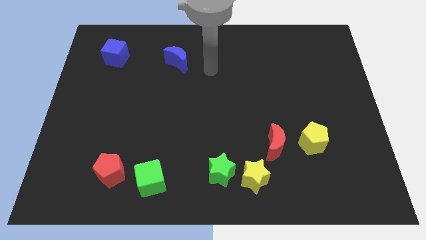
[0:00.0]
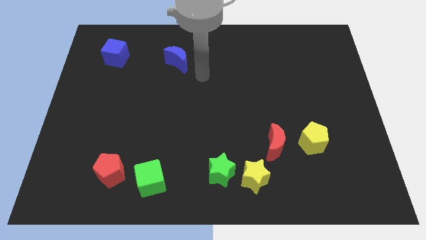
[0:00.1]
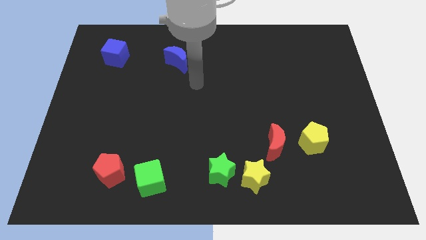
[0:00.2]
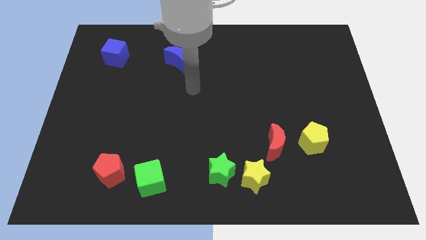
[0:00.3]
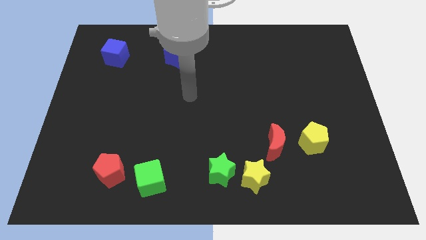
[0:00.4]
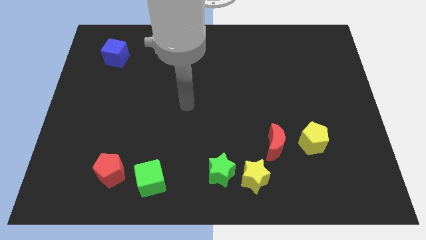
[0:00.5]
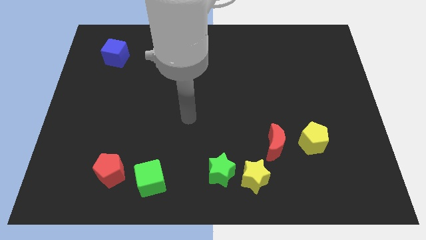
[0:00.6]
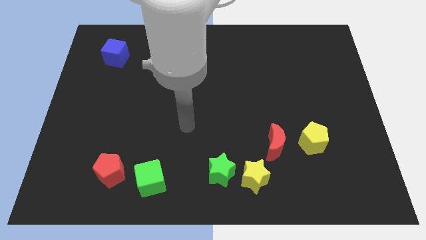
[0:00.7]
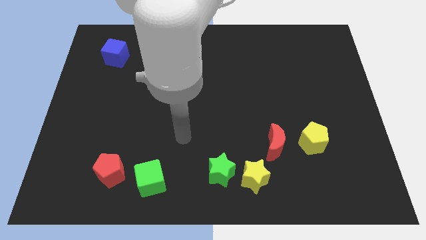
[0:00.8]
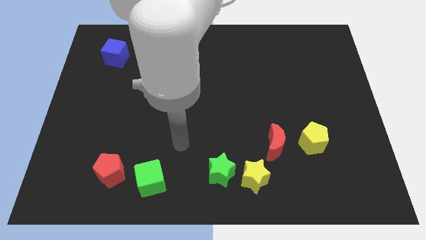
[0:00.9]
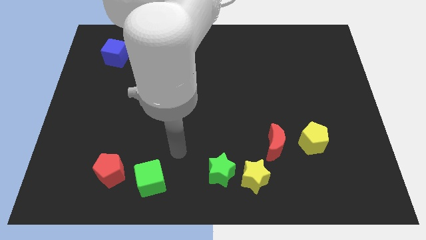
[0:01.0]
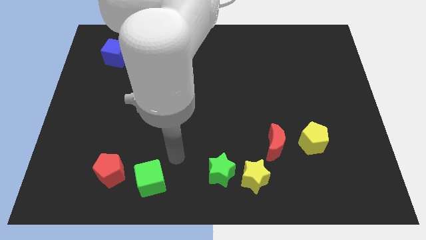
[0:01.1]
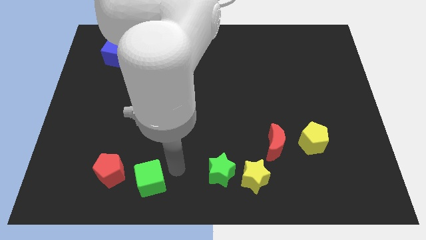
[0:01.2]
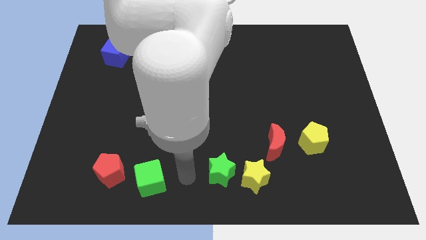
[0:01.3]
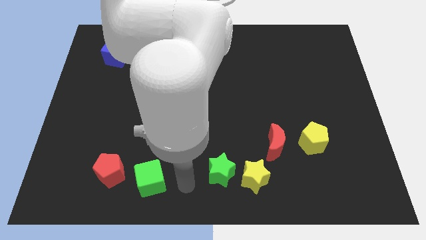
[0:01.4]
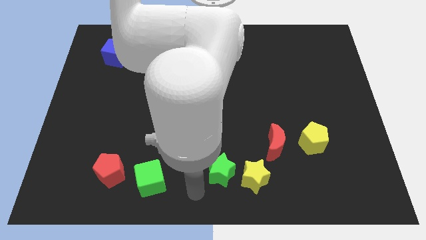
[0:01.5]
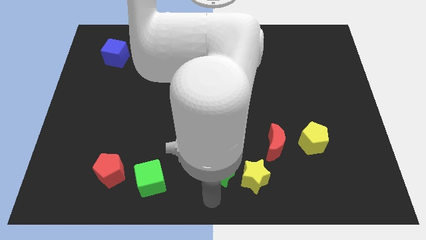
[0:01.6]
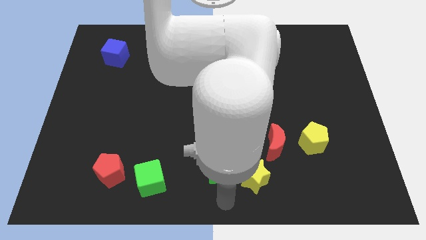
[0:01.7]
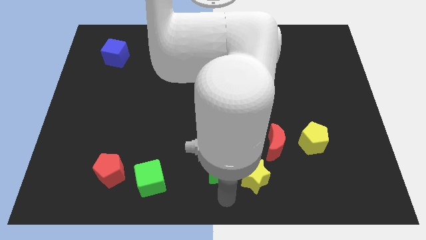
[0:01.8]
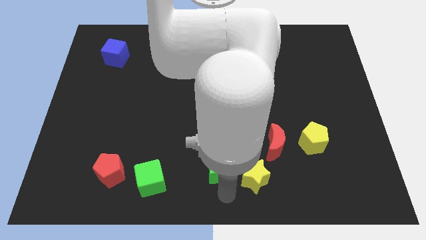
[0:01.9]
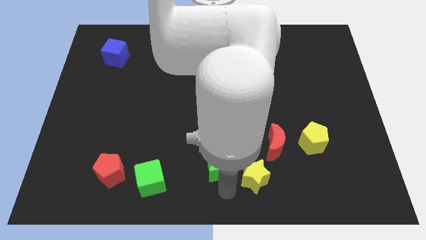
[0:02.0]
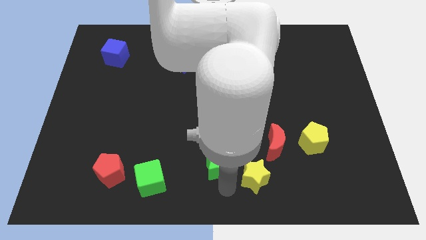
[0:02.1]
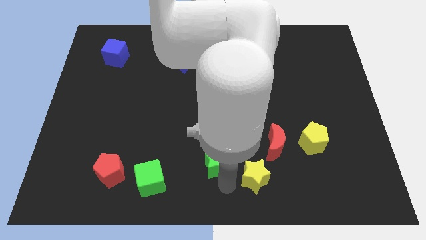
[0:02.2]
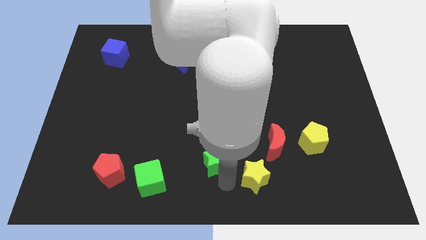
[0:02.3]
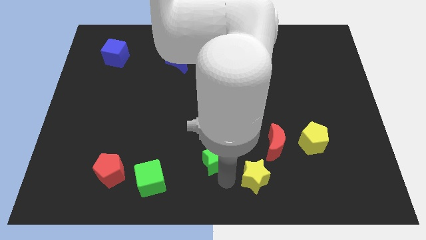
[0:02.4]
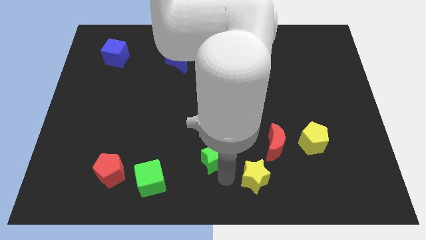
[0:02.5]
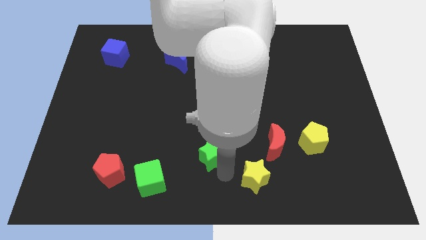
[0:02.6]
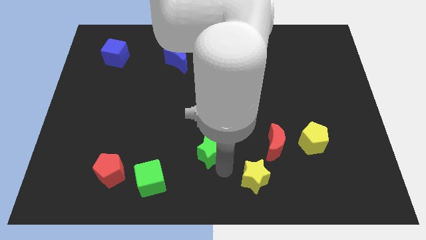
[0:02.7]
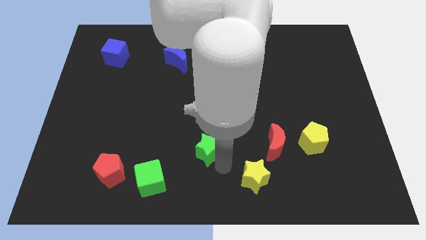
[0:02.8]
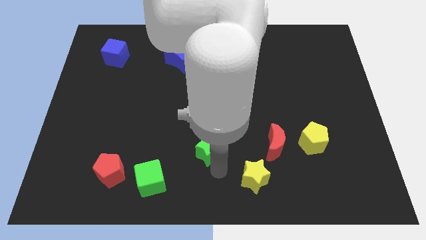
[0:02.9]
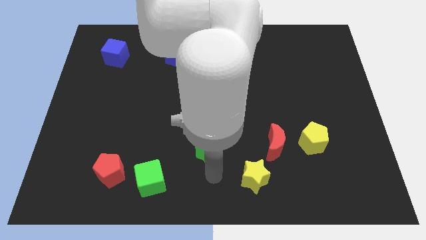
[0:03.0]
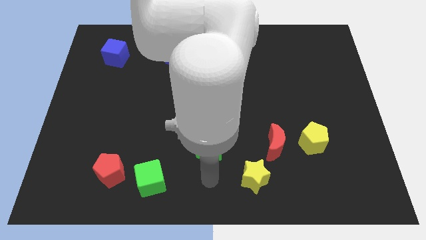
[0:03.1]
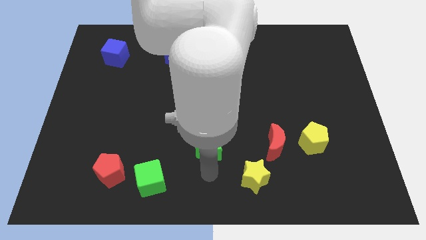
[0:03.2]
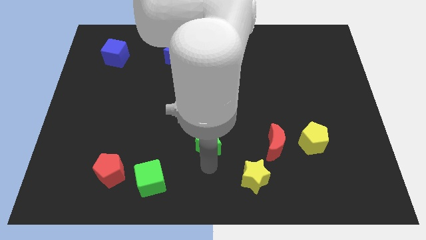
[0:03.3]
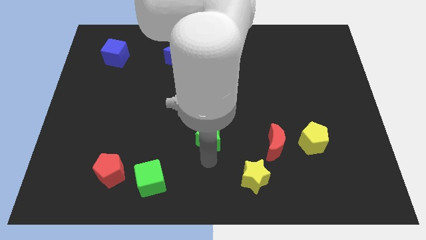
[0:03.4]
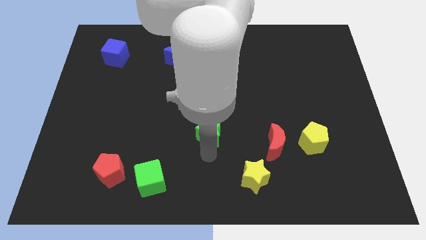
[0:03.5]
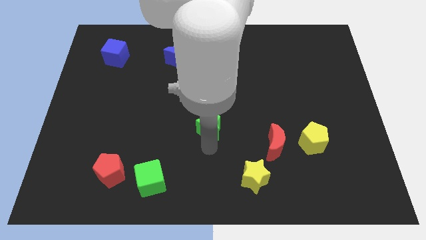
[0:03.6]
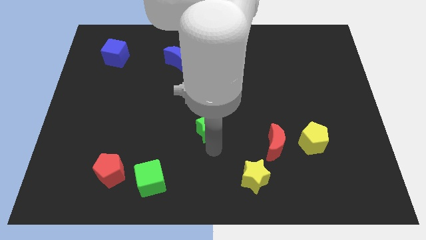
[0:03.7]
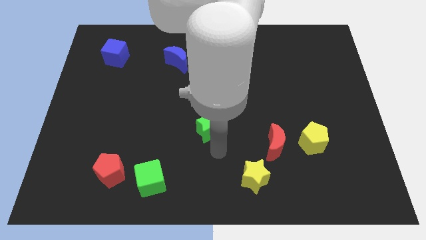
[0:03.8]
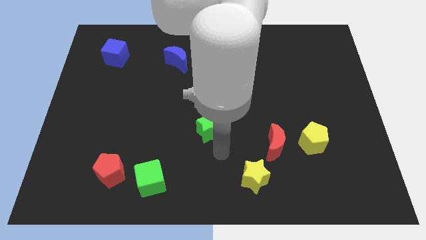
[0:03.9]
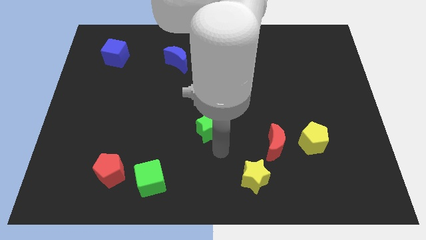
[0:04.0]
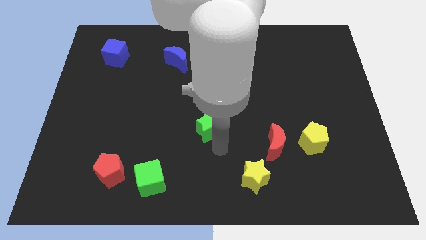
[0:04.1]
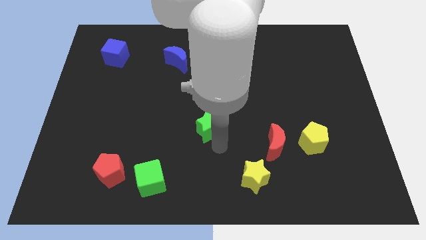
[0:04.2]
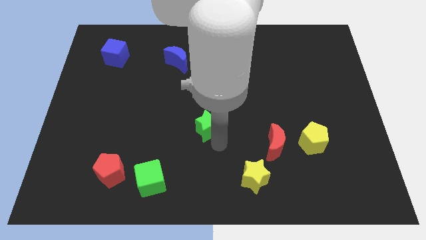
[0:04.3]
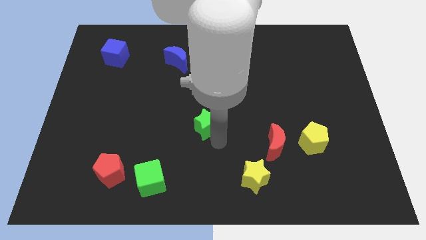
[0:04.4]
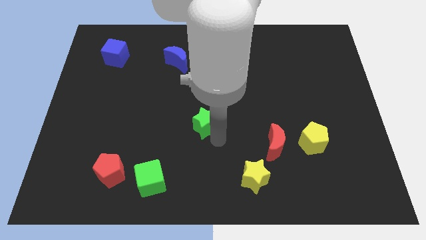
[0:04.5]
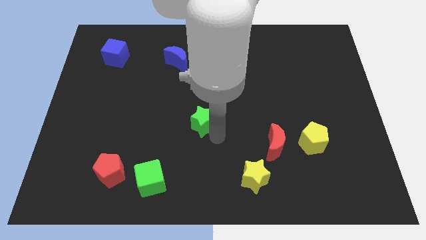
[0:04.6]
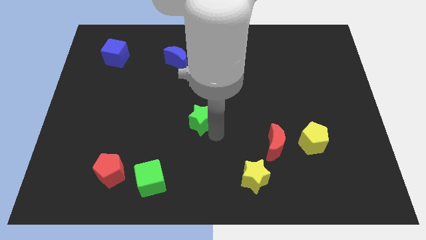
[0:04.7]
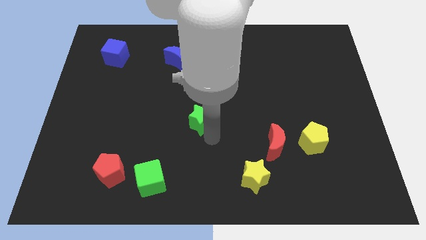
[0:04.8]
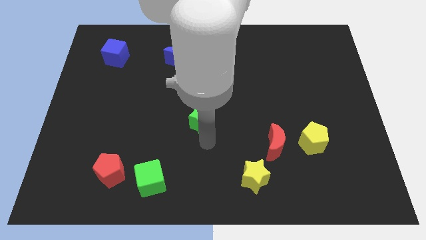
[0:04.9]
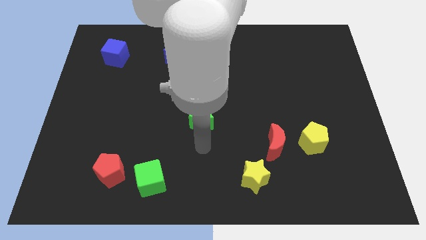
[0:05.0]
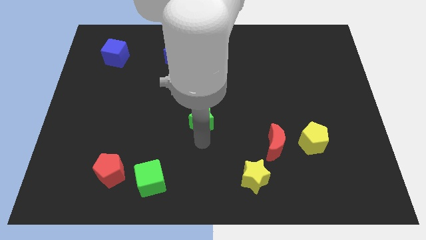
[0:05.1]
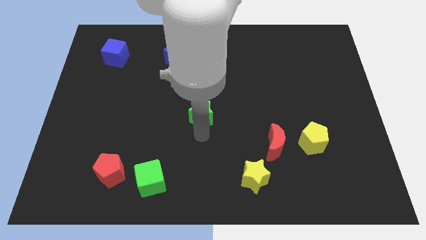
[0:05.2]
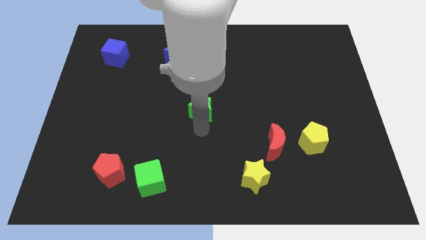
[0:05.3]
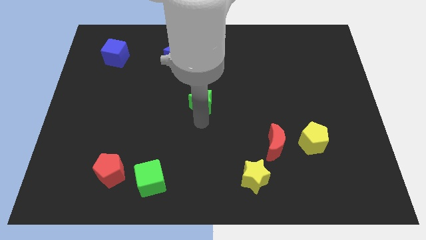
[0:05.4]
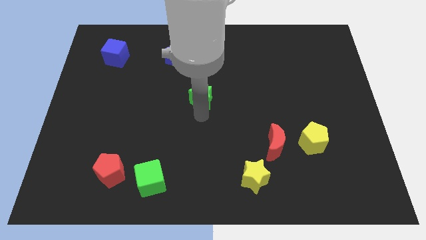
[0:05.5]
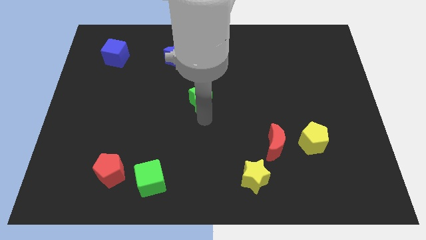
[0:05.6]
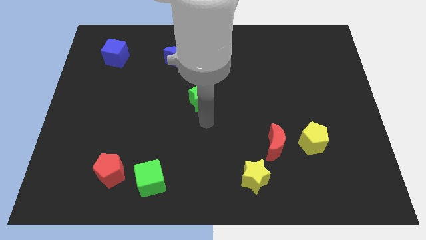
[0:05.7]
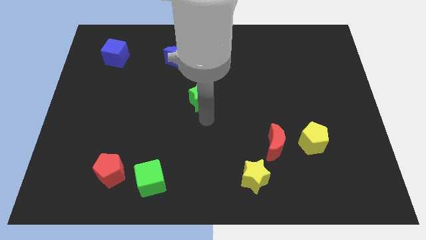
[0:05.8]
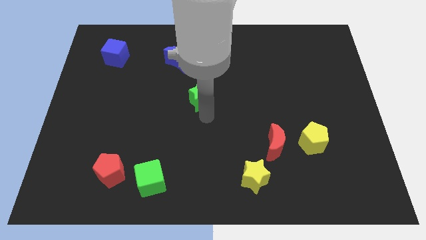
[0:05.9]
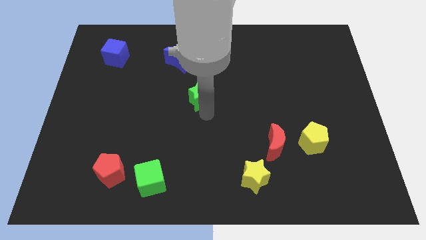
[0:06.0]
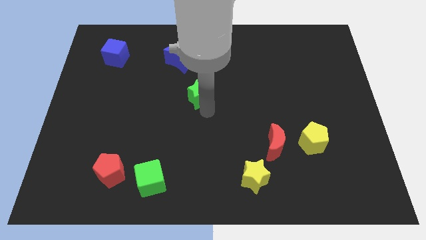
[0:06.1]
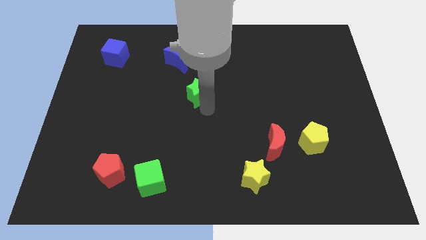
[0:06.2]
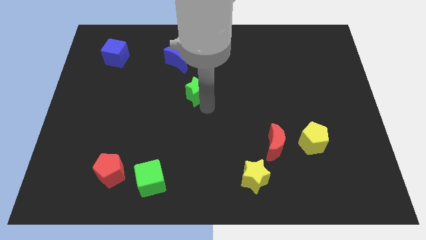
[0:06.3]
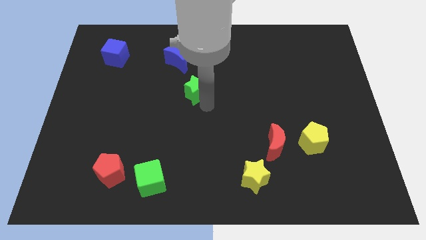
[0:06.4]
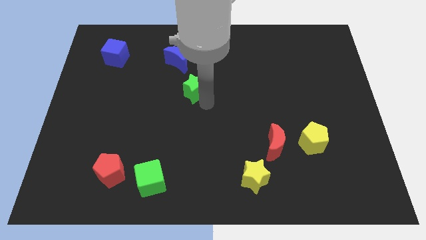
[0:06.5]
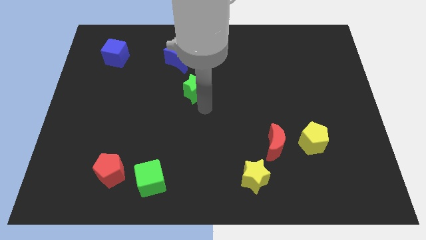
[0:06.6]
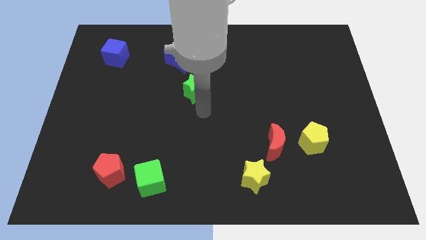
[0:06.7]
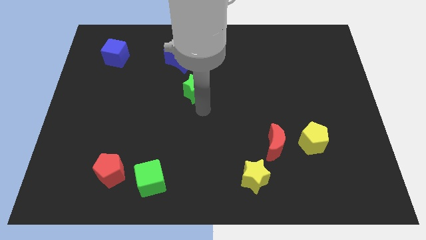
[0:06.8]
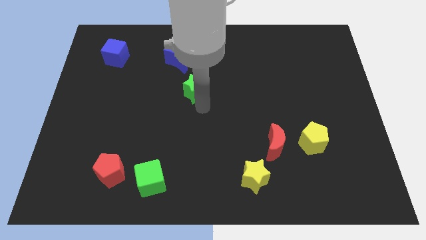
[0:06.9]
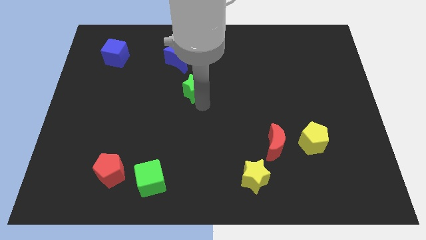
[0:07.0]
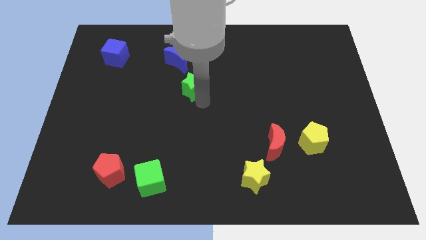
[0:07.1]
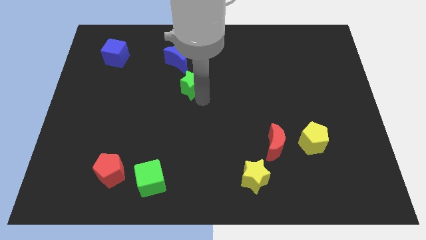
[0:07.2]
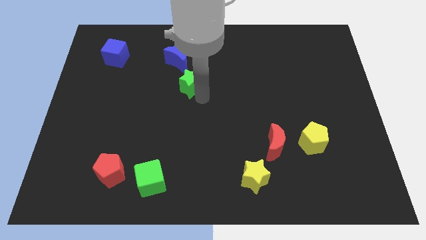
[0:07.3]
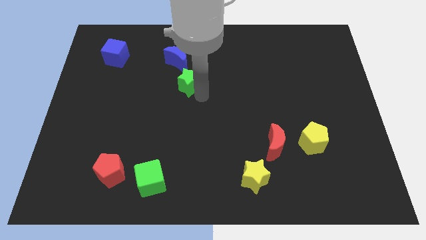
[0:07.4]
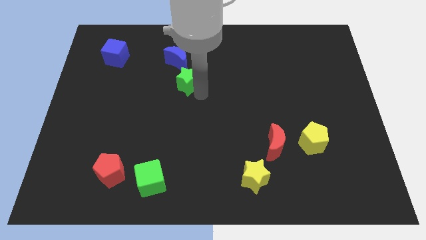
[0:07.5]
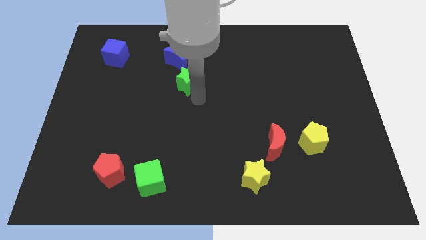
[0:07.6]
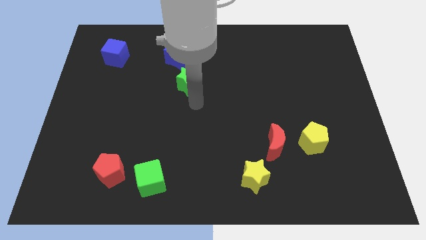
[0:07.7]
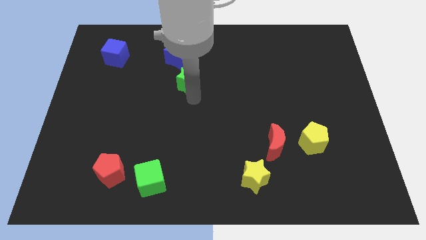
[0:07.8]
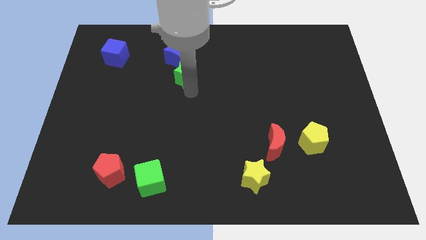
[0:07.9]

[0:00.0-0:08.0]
move the green star close to the blue moon
